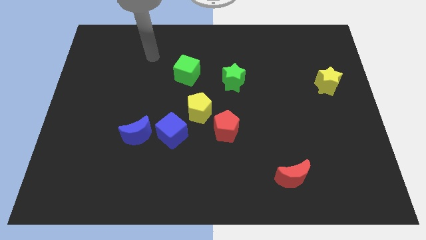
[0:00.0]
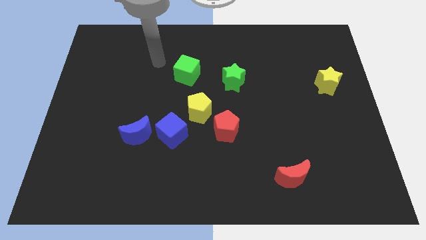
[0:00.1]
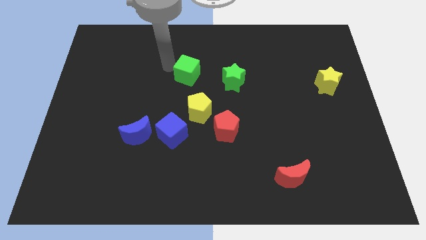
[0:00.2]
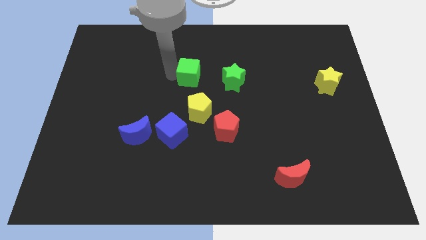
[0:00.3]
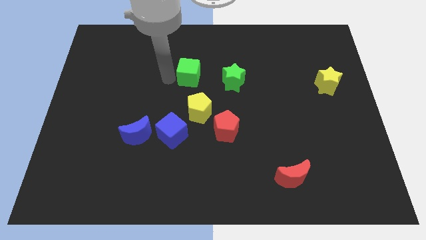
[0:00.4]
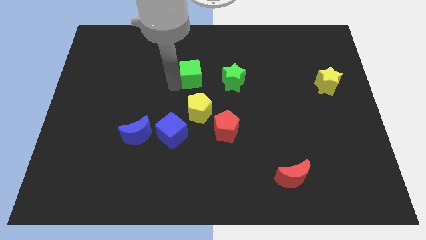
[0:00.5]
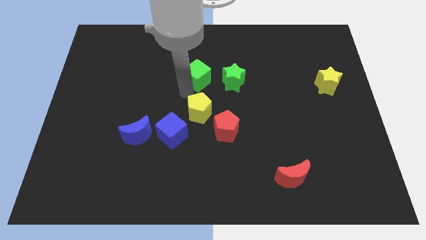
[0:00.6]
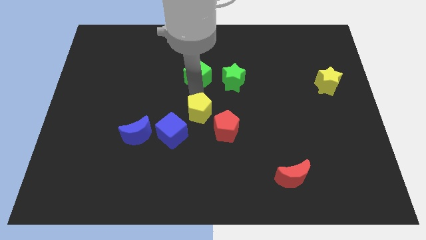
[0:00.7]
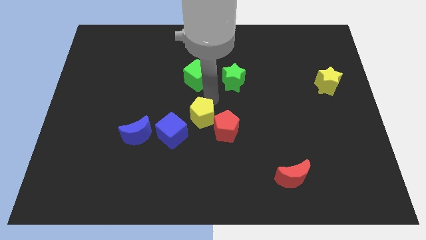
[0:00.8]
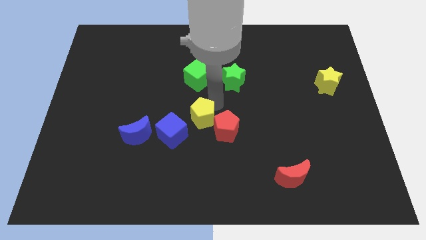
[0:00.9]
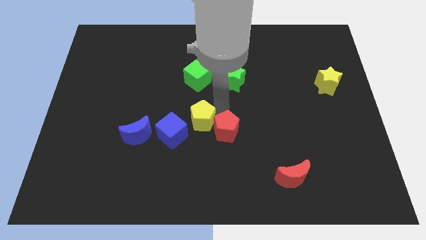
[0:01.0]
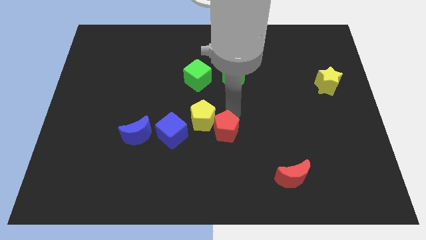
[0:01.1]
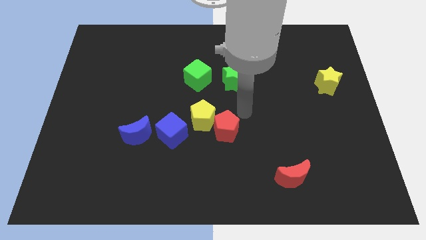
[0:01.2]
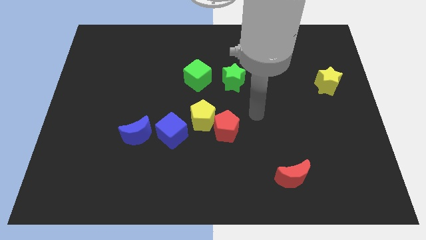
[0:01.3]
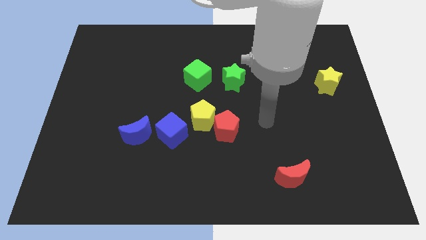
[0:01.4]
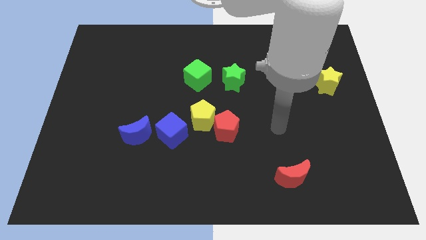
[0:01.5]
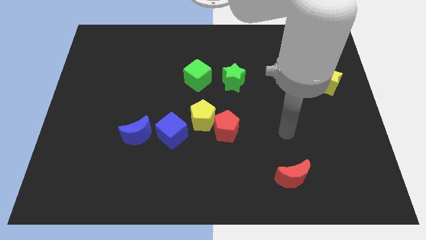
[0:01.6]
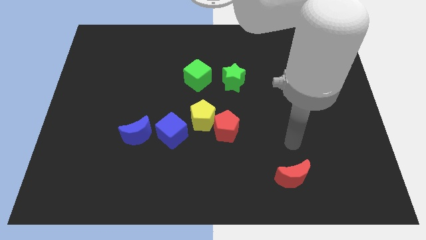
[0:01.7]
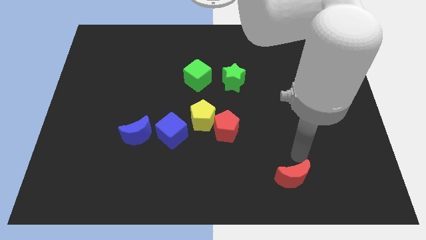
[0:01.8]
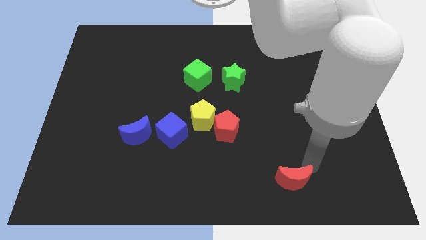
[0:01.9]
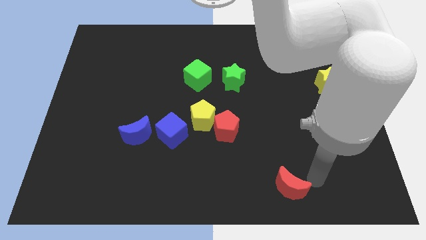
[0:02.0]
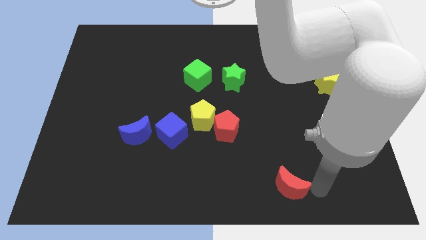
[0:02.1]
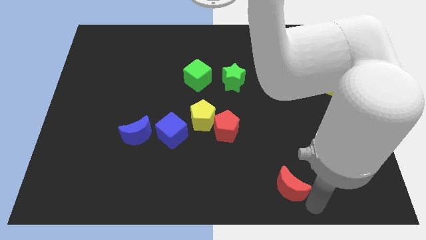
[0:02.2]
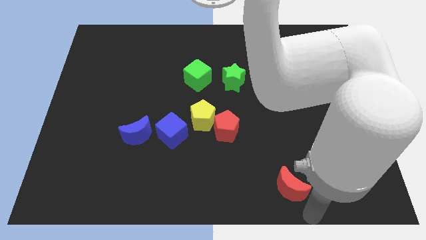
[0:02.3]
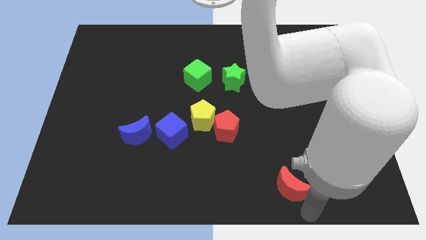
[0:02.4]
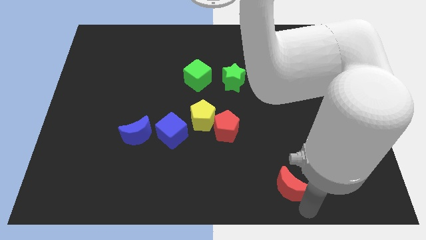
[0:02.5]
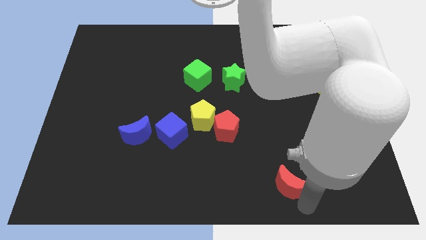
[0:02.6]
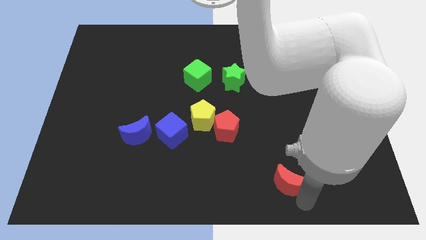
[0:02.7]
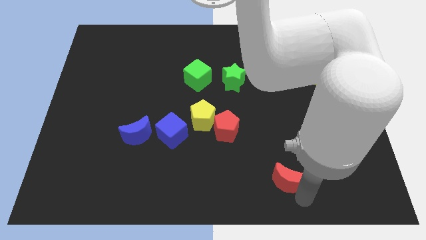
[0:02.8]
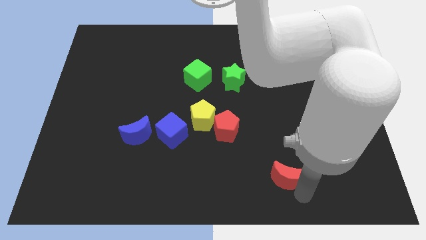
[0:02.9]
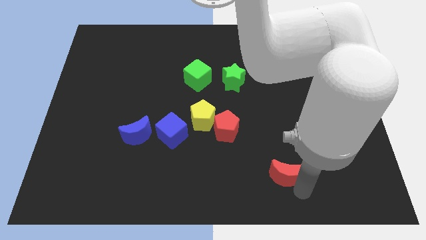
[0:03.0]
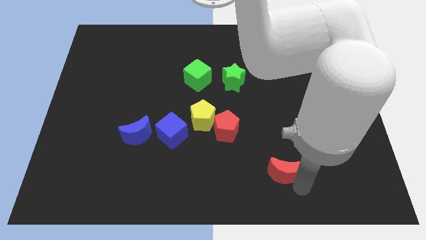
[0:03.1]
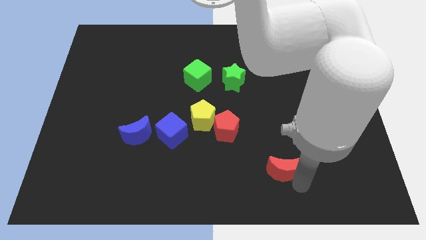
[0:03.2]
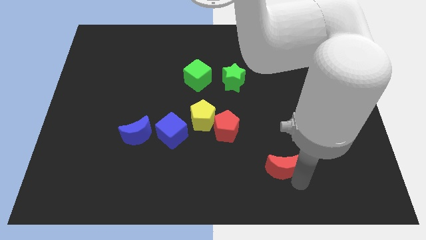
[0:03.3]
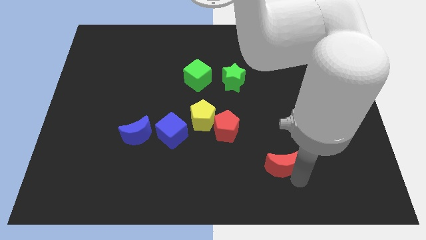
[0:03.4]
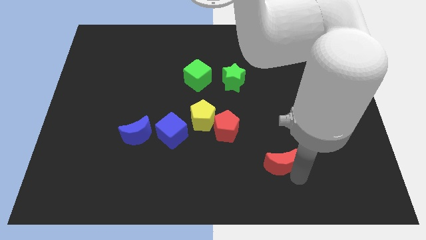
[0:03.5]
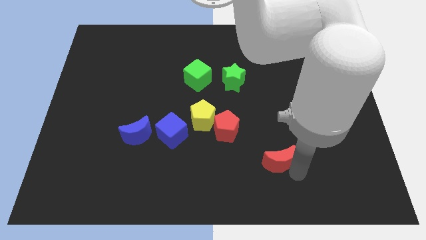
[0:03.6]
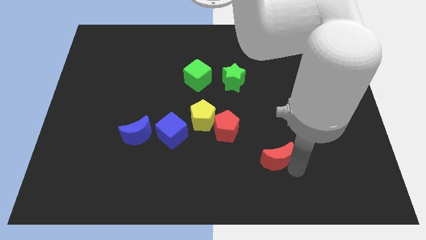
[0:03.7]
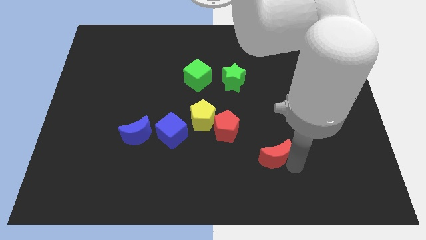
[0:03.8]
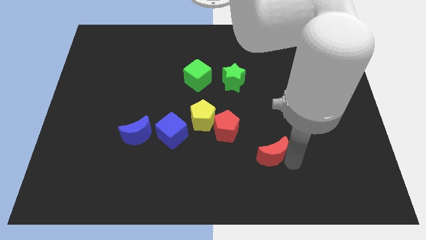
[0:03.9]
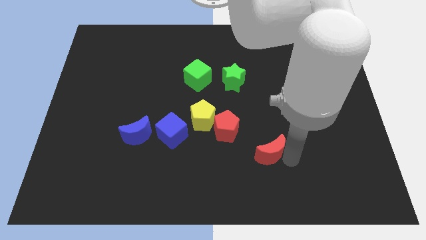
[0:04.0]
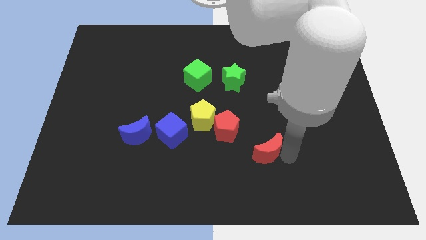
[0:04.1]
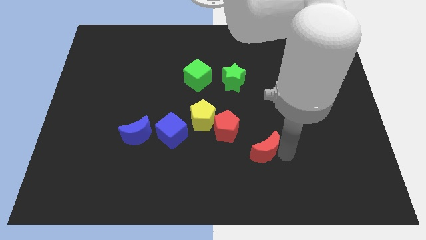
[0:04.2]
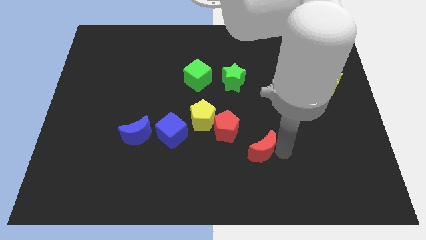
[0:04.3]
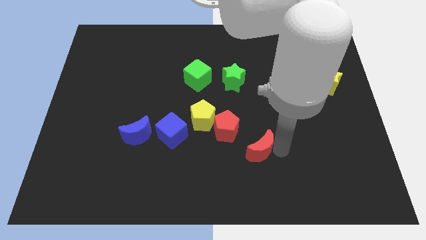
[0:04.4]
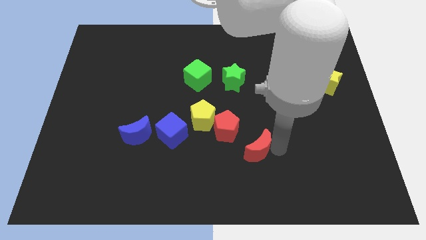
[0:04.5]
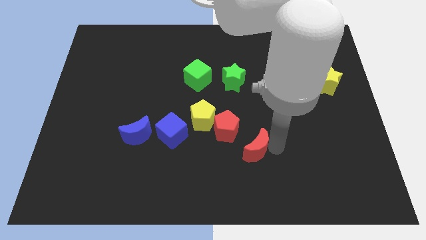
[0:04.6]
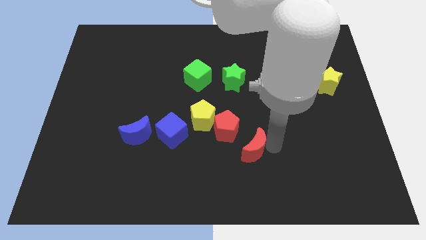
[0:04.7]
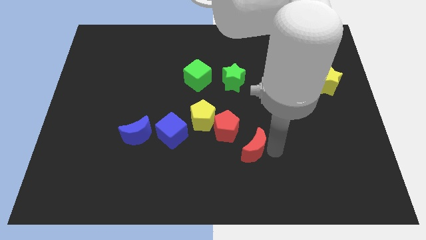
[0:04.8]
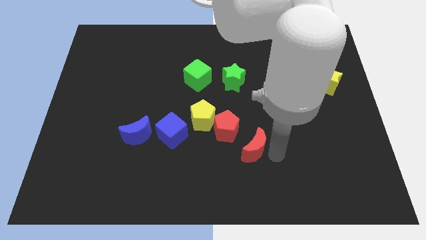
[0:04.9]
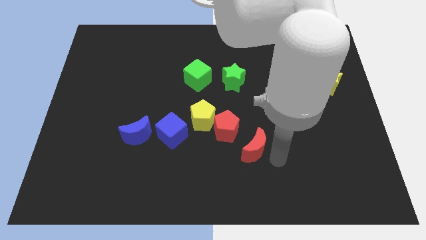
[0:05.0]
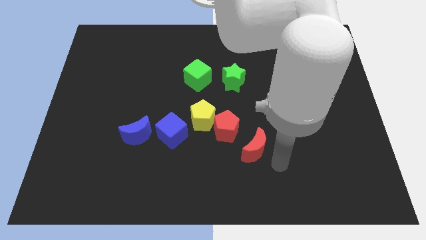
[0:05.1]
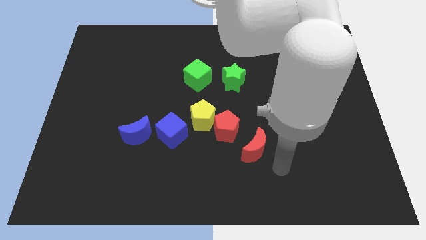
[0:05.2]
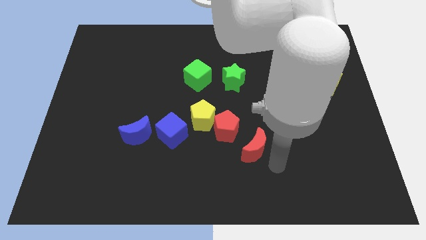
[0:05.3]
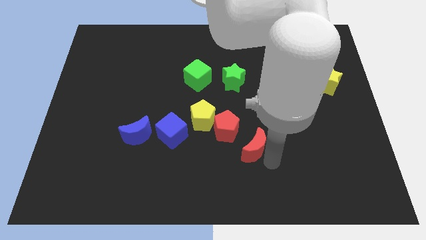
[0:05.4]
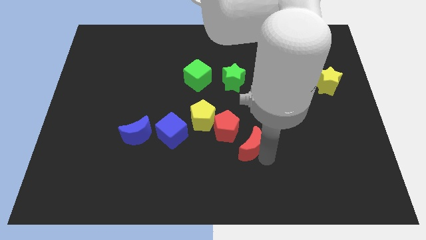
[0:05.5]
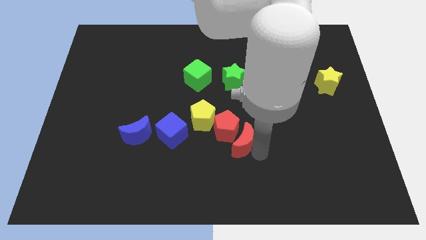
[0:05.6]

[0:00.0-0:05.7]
push the red moon next to the red pentagon

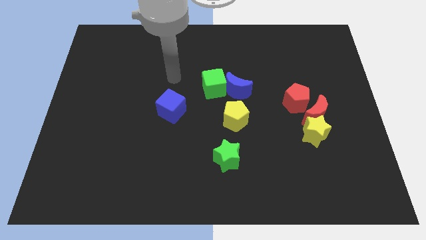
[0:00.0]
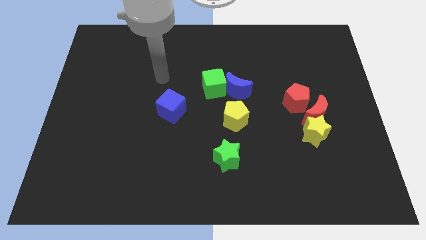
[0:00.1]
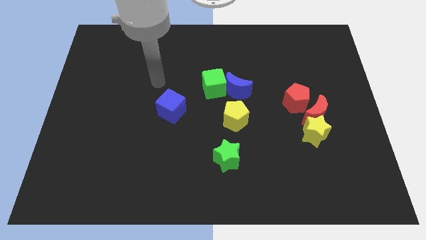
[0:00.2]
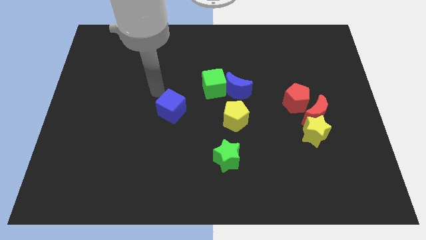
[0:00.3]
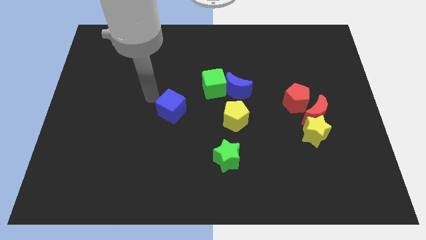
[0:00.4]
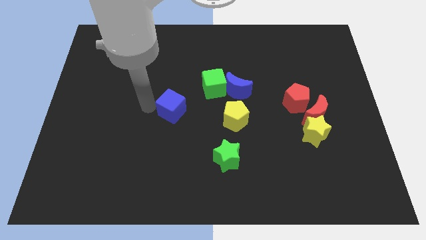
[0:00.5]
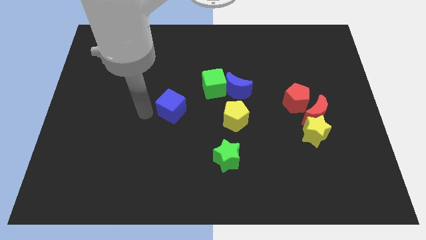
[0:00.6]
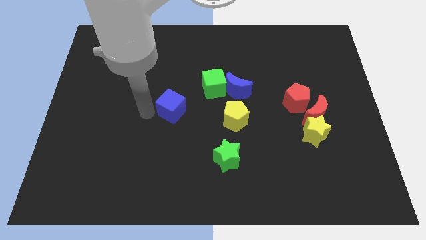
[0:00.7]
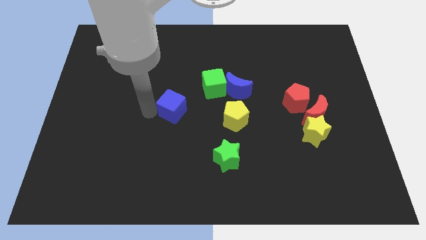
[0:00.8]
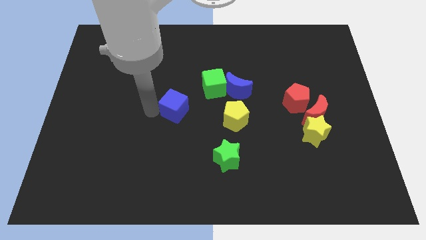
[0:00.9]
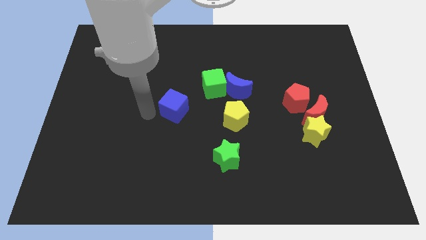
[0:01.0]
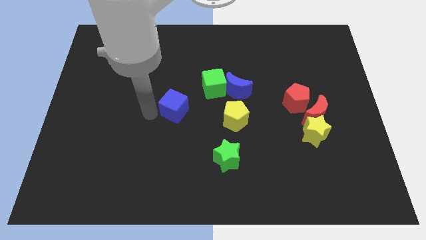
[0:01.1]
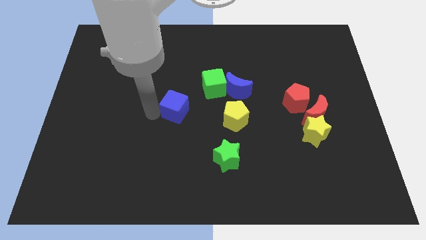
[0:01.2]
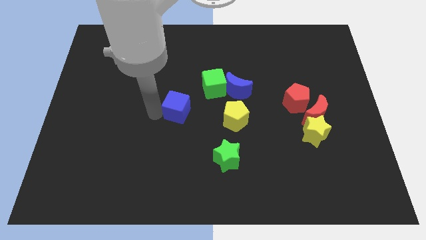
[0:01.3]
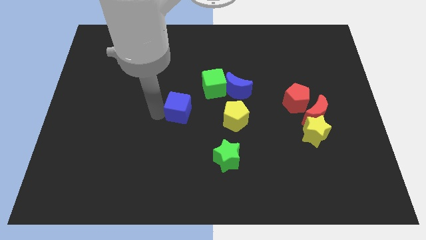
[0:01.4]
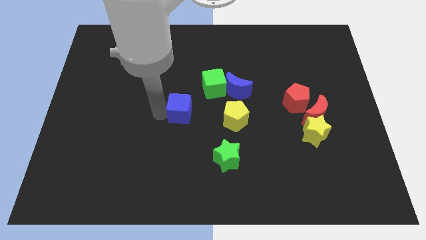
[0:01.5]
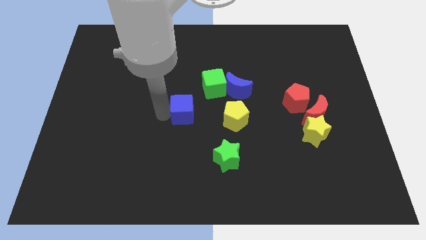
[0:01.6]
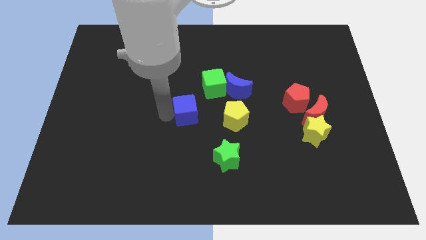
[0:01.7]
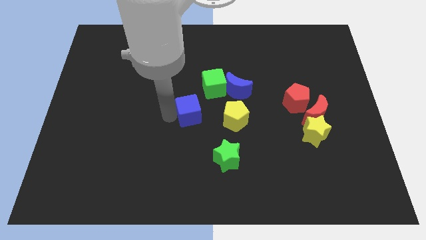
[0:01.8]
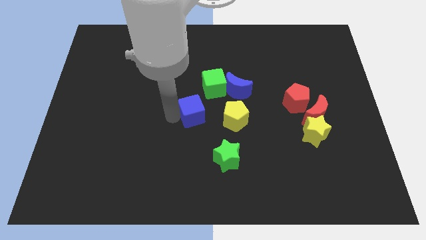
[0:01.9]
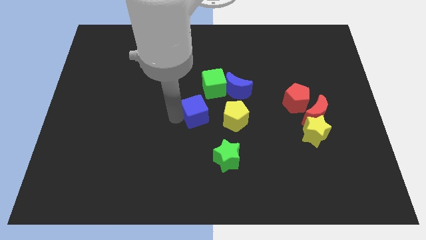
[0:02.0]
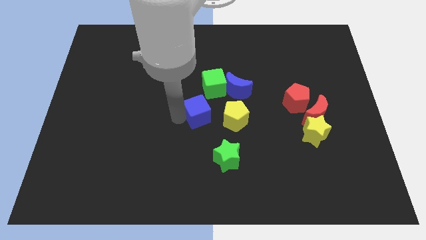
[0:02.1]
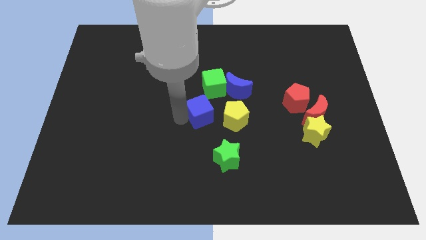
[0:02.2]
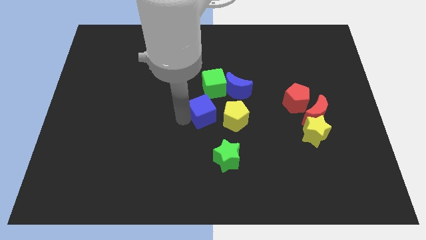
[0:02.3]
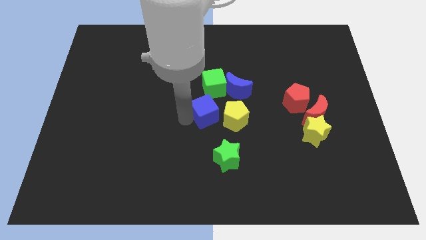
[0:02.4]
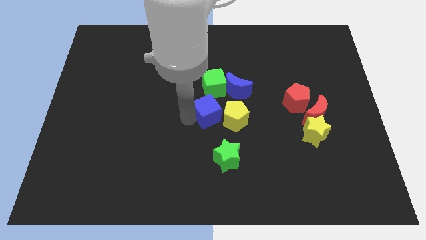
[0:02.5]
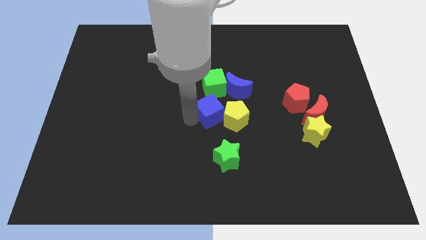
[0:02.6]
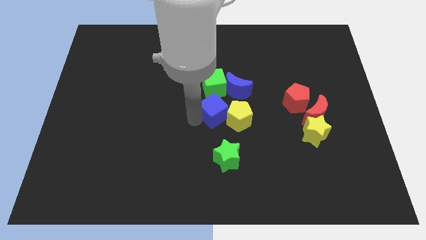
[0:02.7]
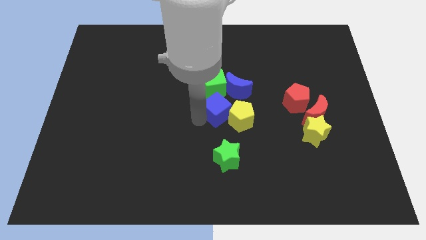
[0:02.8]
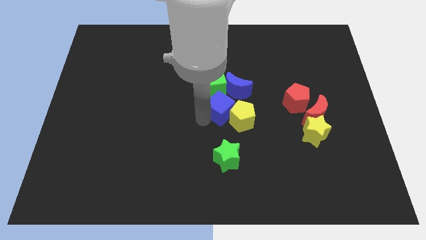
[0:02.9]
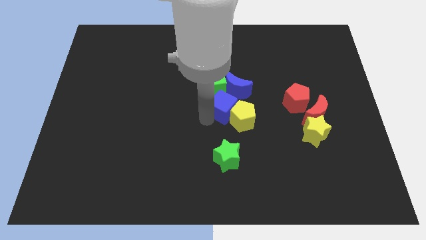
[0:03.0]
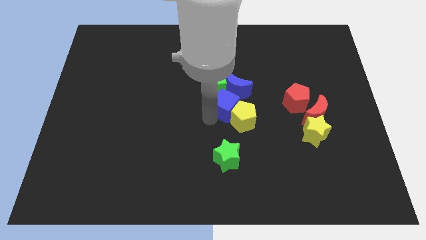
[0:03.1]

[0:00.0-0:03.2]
put the blue cube close to the blue moon
